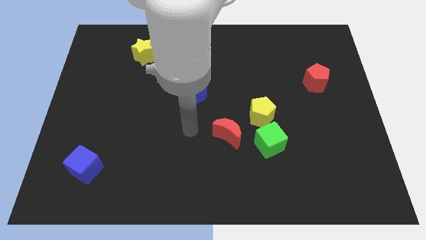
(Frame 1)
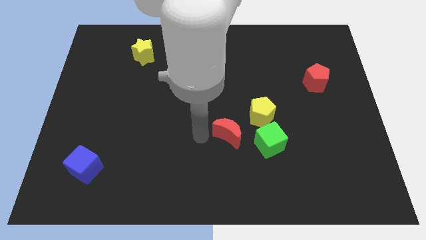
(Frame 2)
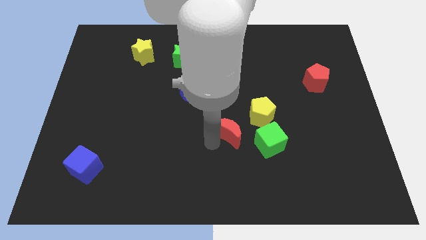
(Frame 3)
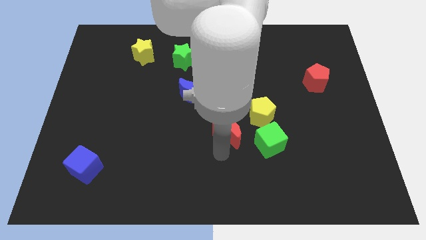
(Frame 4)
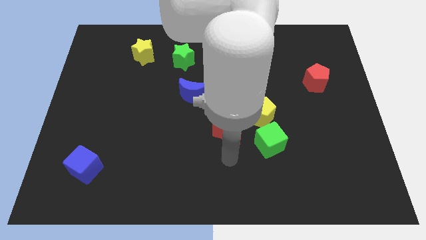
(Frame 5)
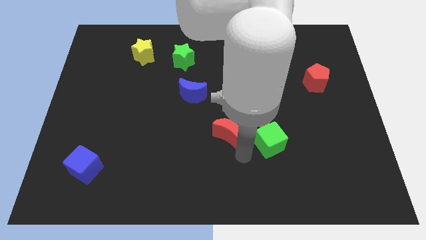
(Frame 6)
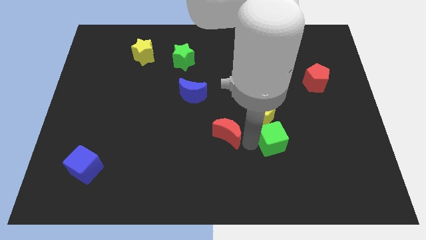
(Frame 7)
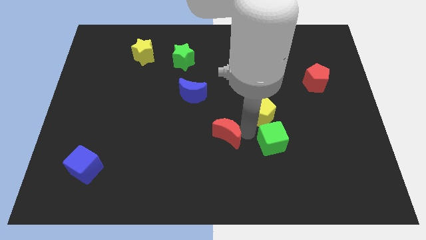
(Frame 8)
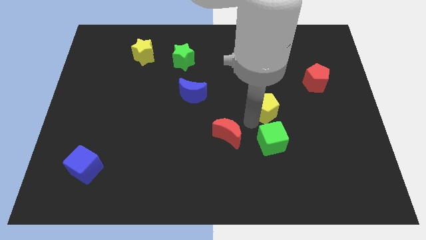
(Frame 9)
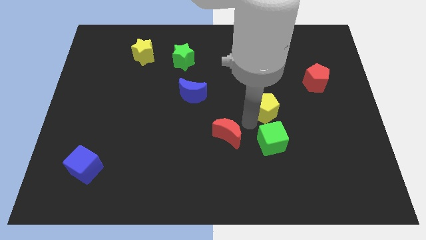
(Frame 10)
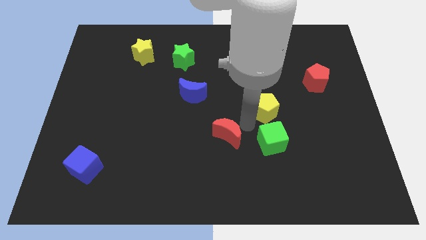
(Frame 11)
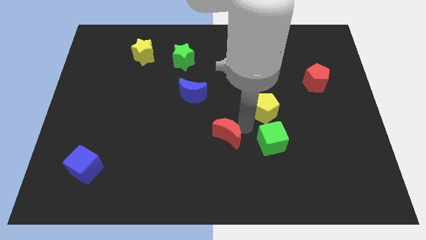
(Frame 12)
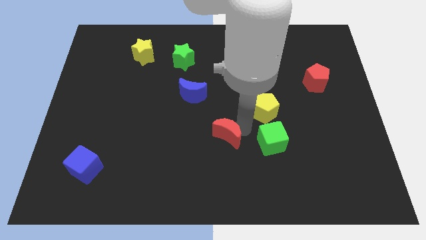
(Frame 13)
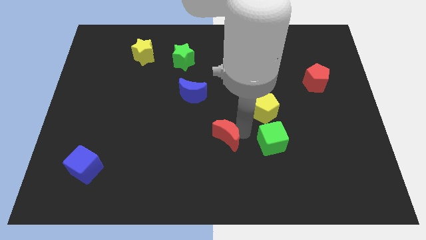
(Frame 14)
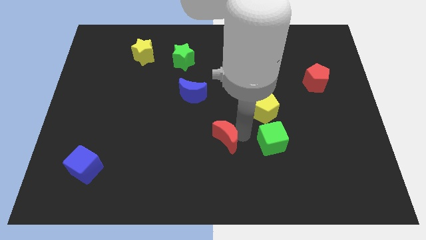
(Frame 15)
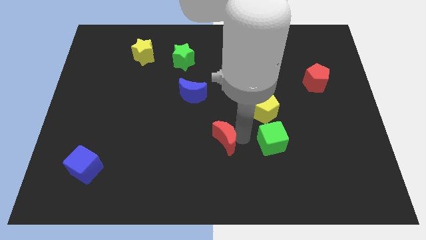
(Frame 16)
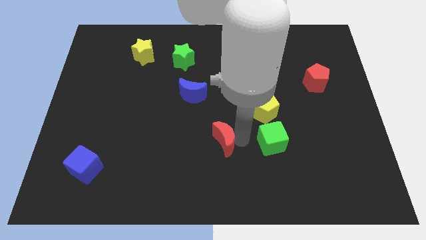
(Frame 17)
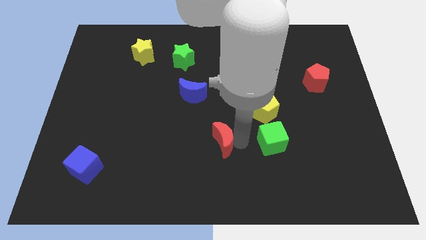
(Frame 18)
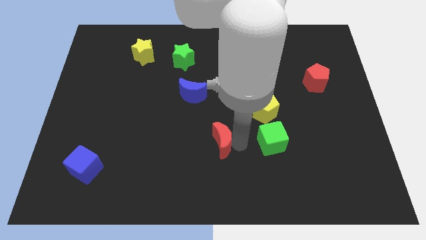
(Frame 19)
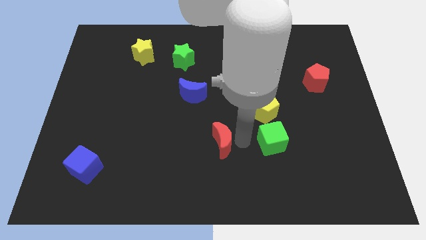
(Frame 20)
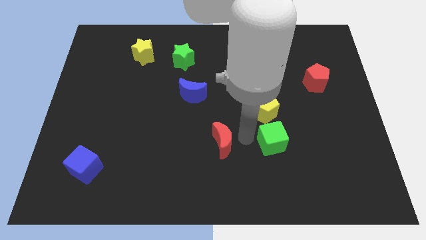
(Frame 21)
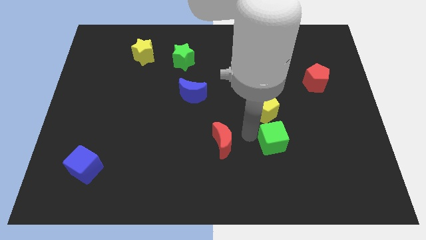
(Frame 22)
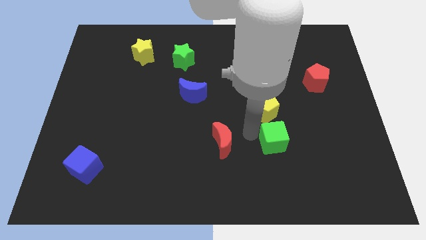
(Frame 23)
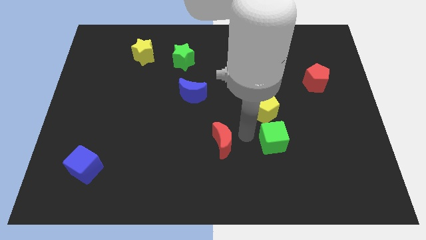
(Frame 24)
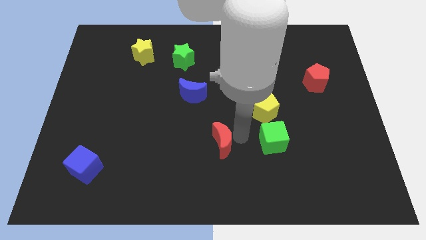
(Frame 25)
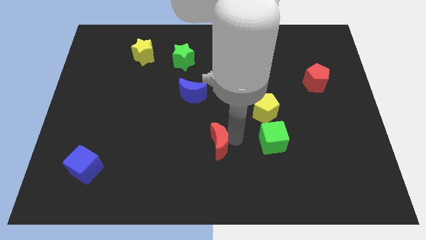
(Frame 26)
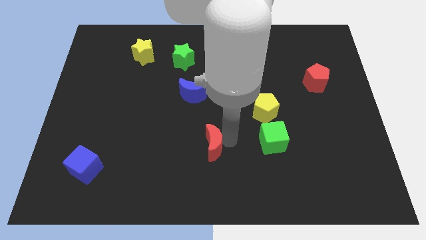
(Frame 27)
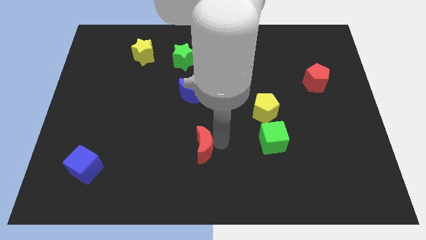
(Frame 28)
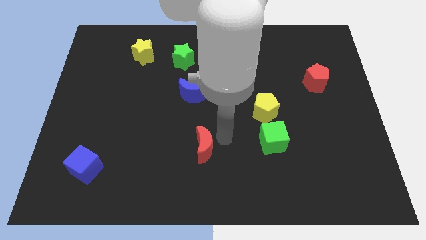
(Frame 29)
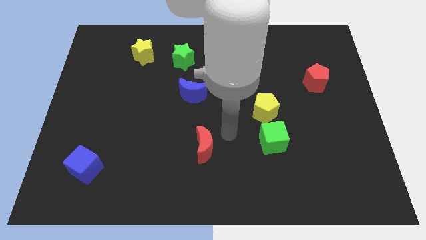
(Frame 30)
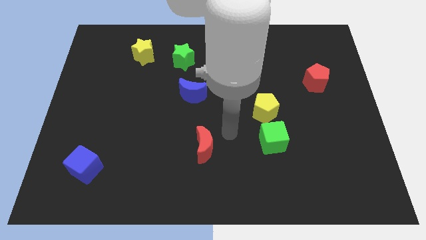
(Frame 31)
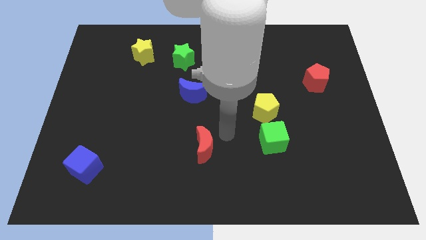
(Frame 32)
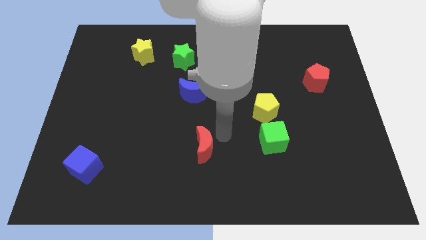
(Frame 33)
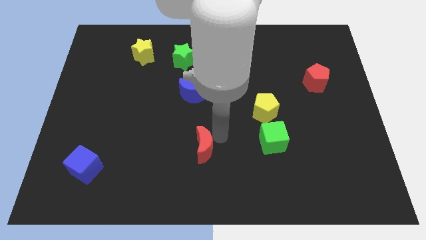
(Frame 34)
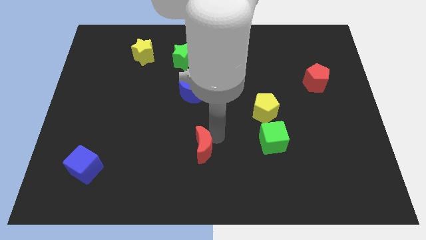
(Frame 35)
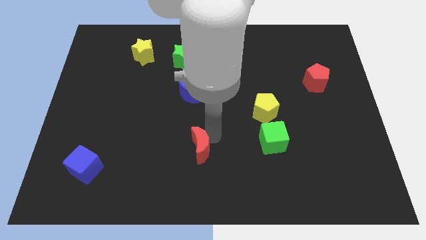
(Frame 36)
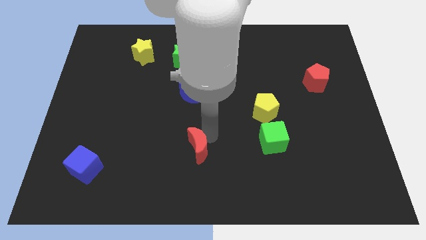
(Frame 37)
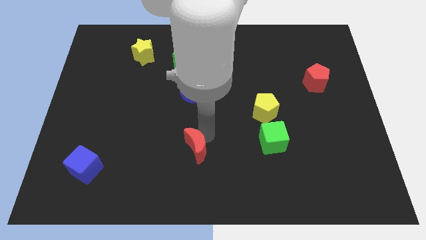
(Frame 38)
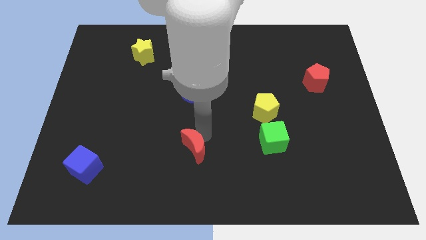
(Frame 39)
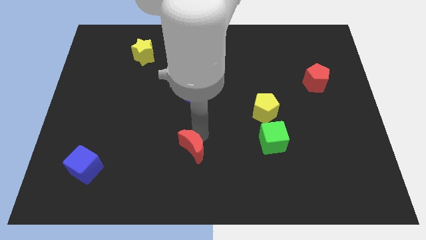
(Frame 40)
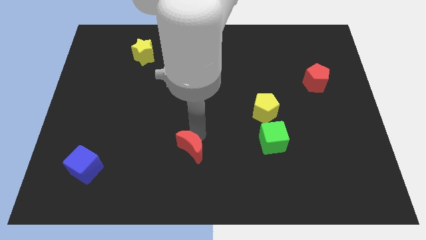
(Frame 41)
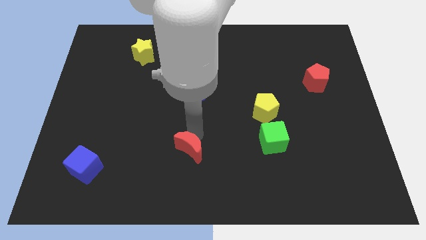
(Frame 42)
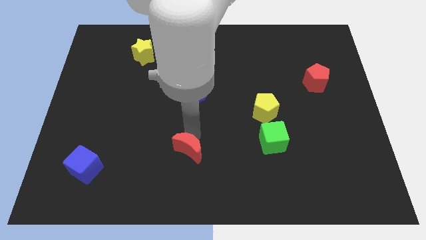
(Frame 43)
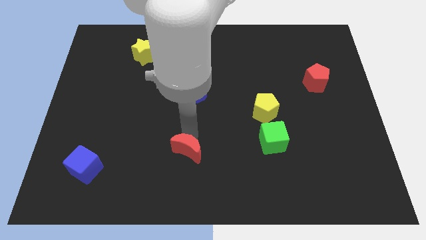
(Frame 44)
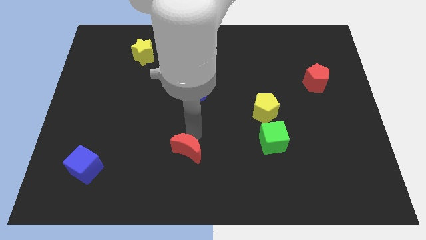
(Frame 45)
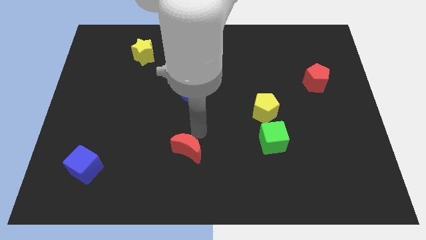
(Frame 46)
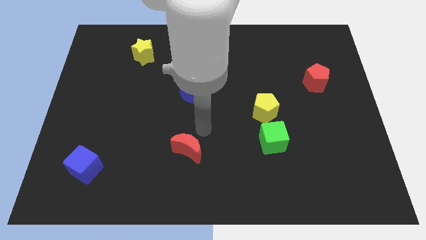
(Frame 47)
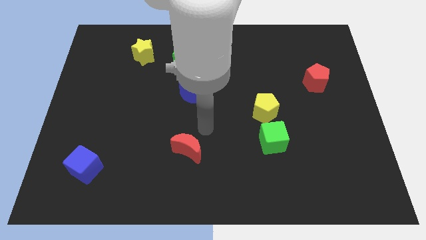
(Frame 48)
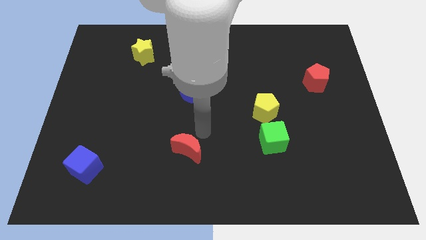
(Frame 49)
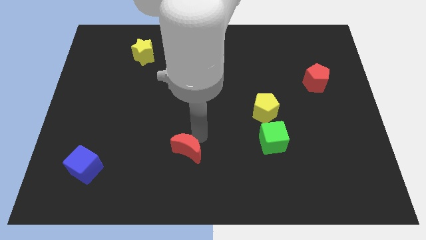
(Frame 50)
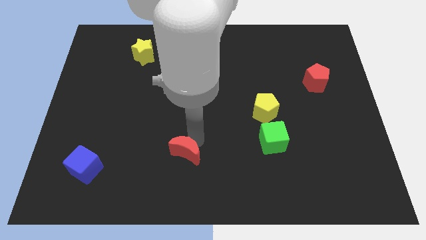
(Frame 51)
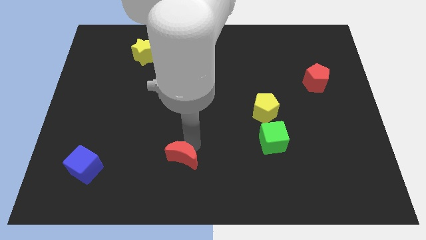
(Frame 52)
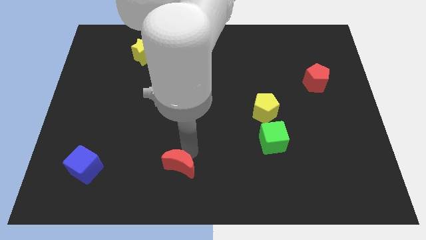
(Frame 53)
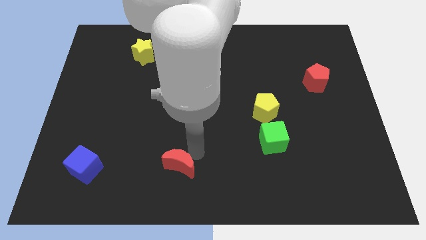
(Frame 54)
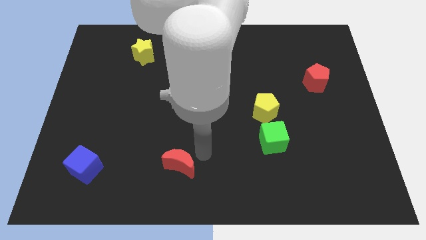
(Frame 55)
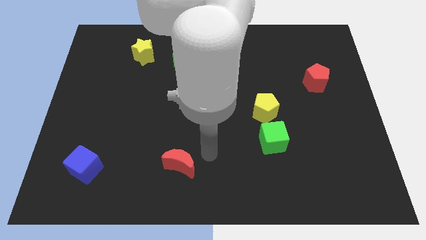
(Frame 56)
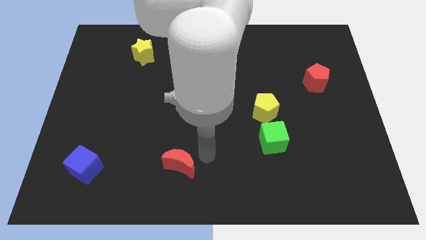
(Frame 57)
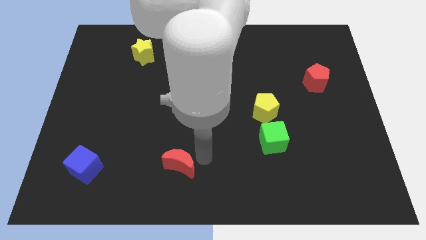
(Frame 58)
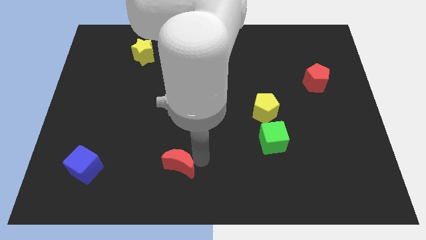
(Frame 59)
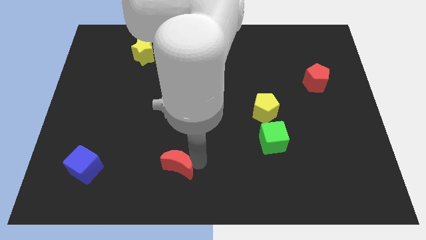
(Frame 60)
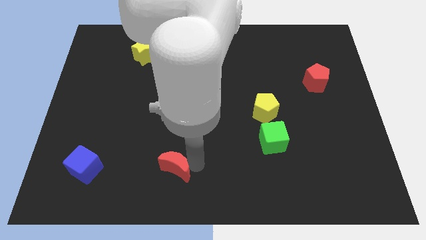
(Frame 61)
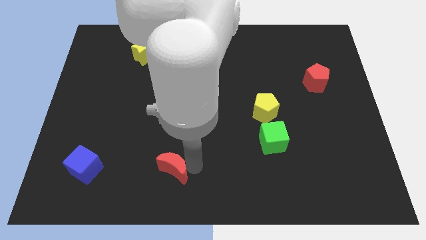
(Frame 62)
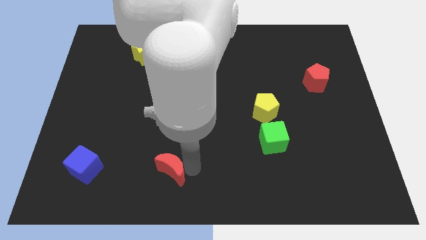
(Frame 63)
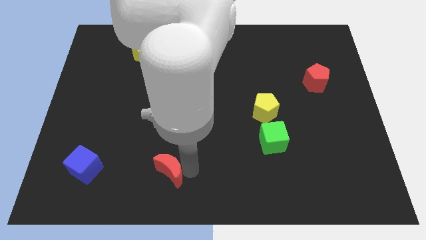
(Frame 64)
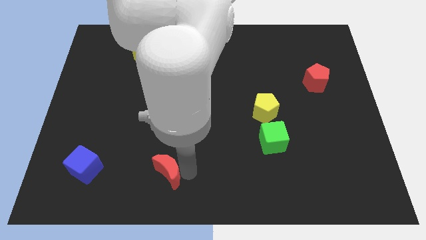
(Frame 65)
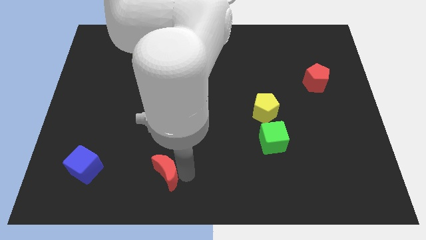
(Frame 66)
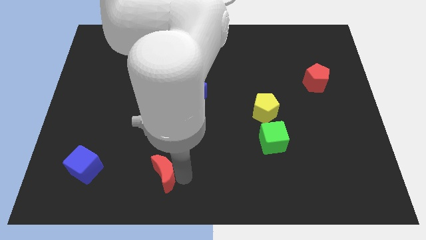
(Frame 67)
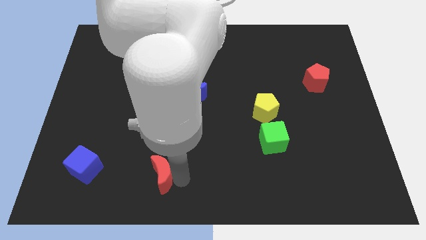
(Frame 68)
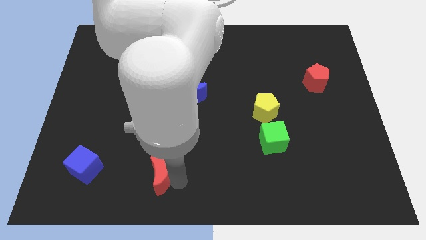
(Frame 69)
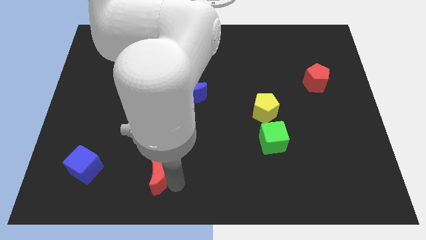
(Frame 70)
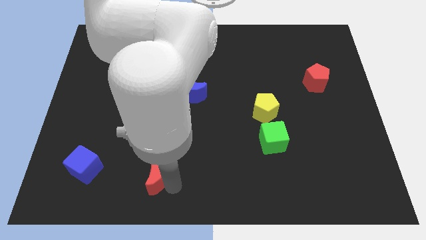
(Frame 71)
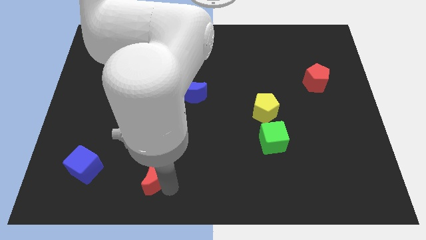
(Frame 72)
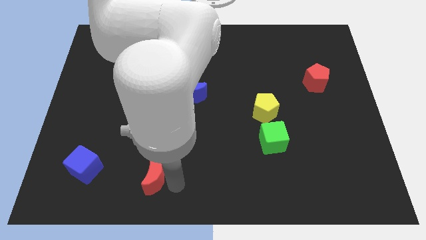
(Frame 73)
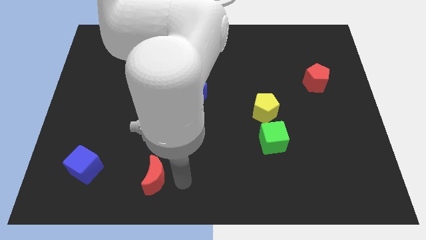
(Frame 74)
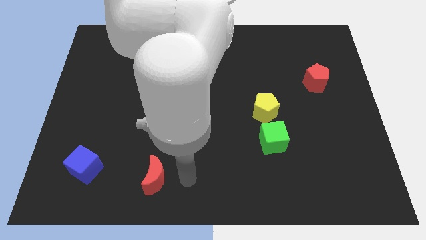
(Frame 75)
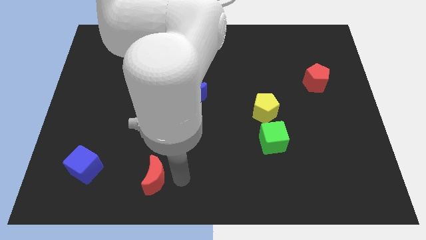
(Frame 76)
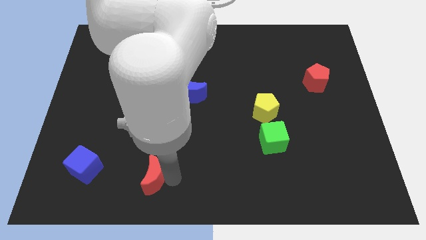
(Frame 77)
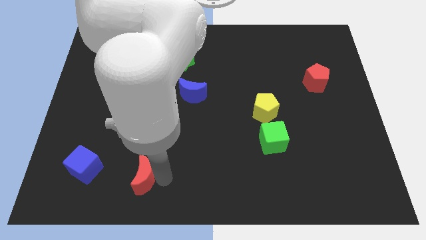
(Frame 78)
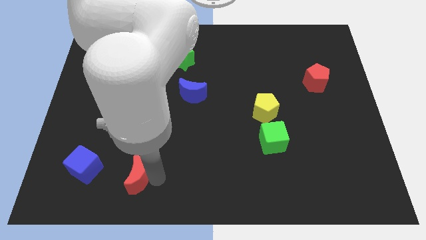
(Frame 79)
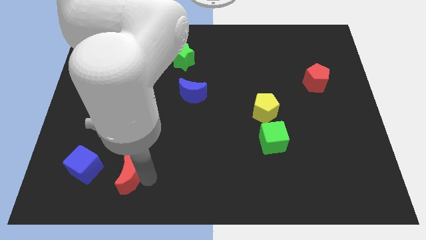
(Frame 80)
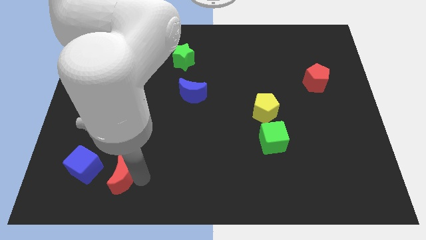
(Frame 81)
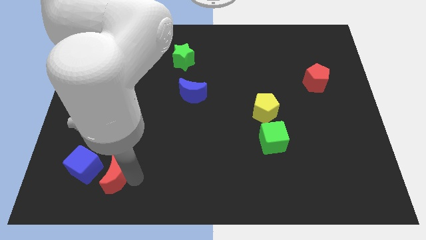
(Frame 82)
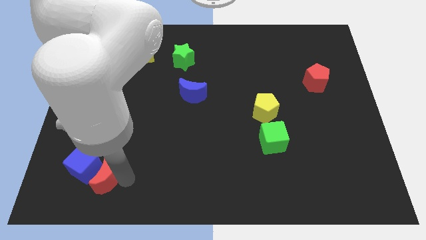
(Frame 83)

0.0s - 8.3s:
push the red moon to the blue cube
